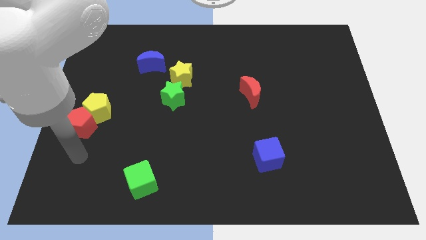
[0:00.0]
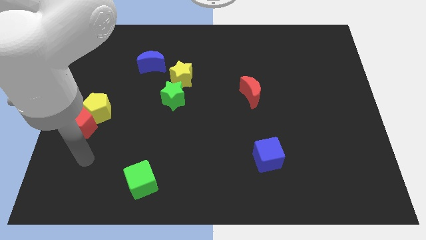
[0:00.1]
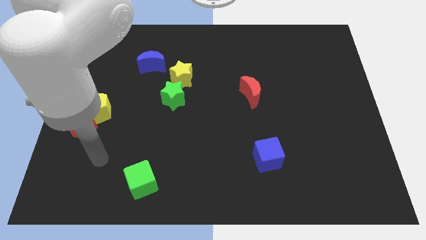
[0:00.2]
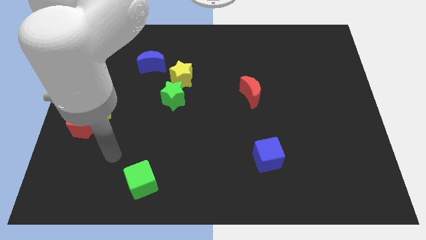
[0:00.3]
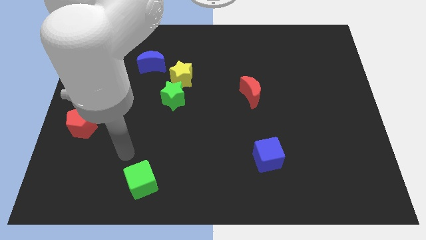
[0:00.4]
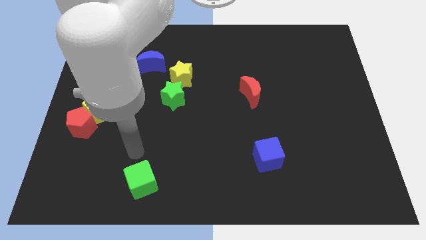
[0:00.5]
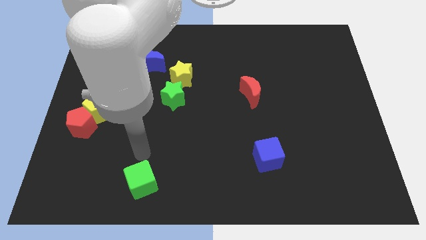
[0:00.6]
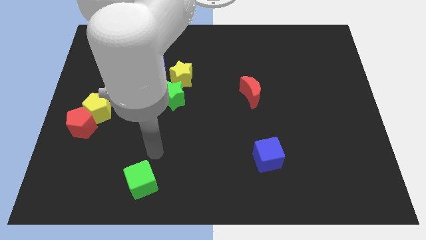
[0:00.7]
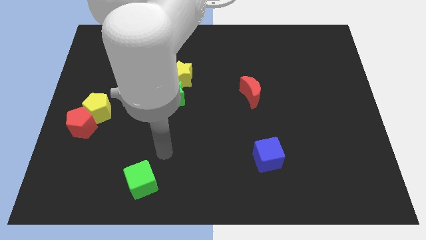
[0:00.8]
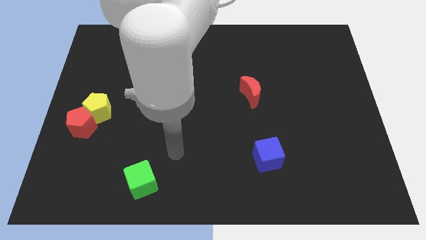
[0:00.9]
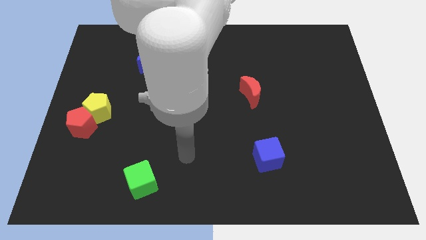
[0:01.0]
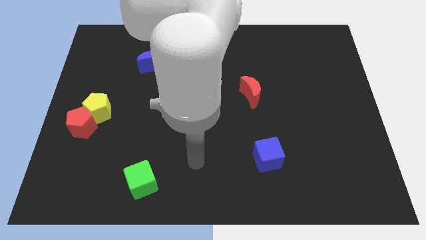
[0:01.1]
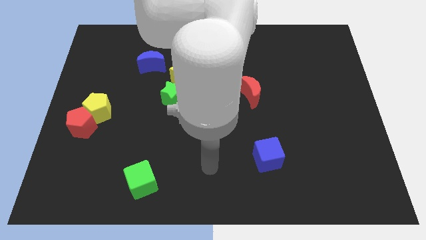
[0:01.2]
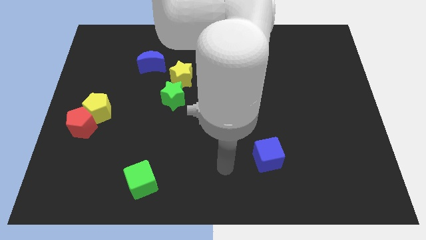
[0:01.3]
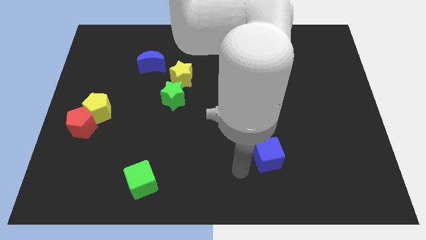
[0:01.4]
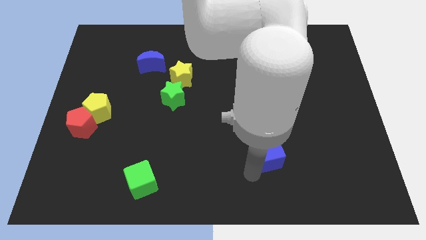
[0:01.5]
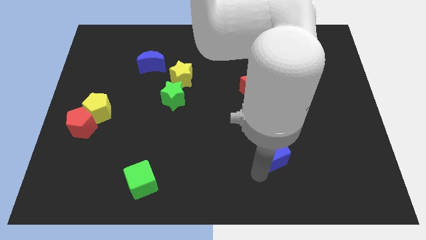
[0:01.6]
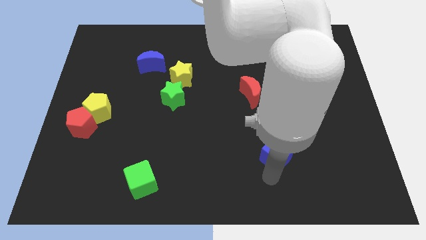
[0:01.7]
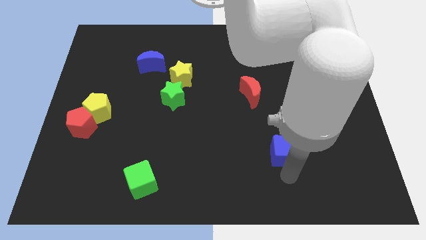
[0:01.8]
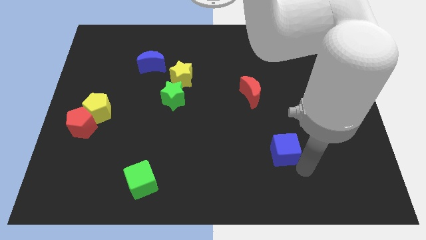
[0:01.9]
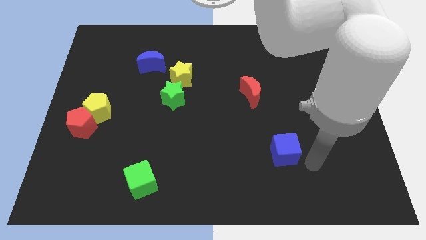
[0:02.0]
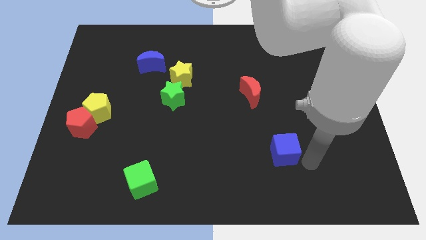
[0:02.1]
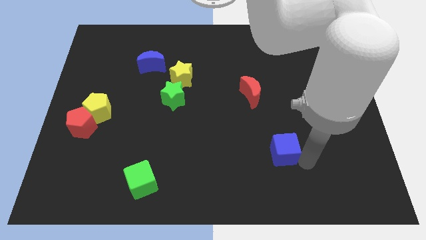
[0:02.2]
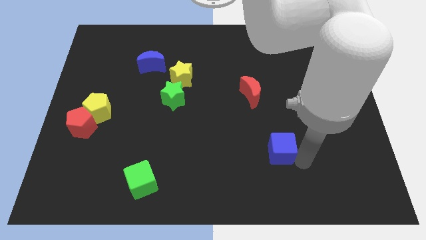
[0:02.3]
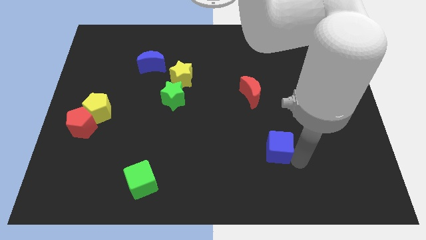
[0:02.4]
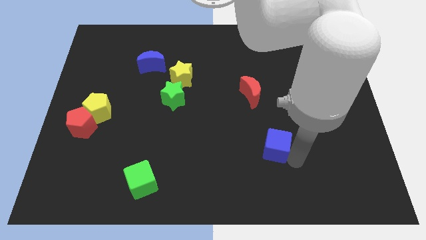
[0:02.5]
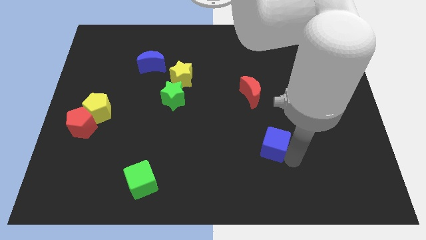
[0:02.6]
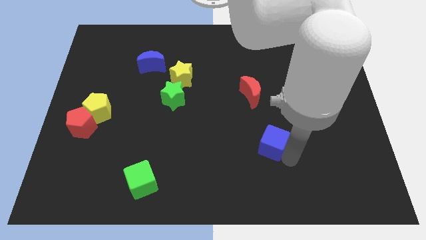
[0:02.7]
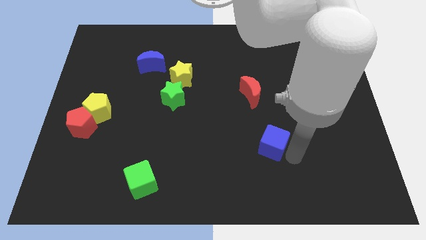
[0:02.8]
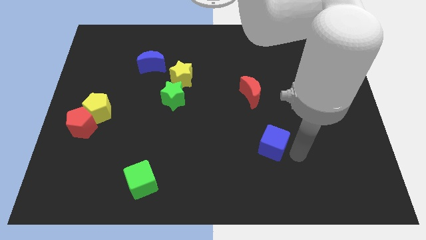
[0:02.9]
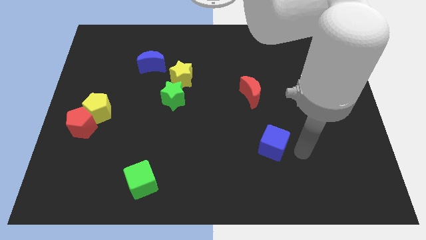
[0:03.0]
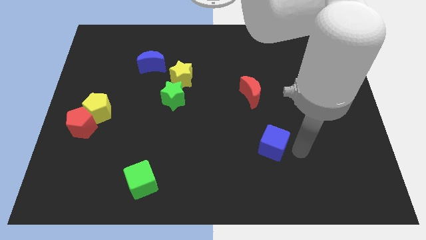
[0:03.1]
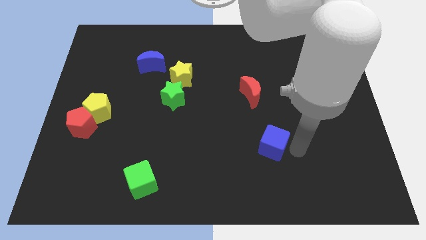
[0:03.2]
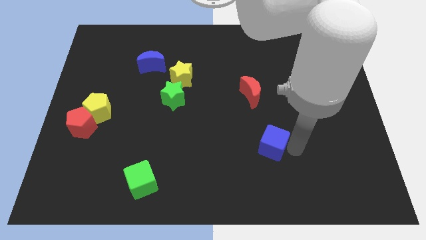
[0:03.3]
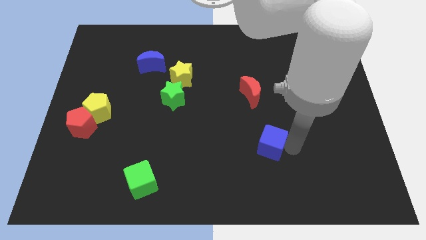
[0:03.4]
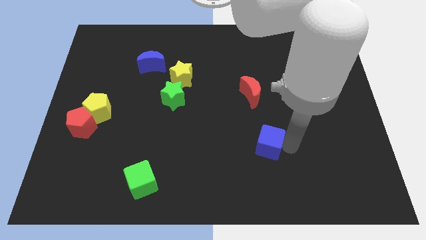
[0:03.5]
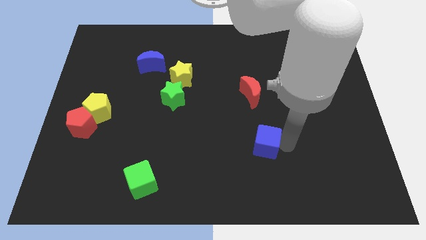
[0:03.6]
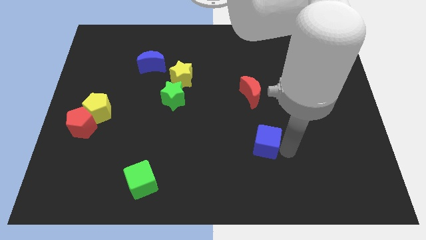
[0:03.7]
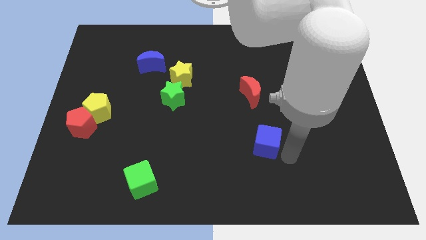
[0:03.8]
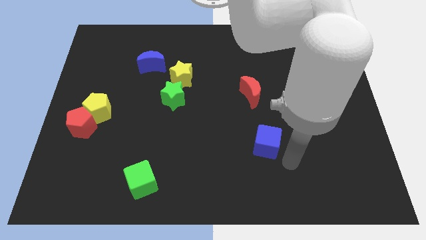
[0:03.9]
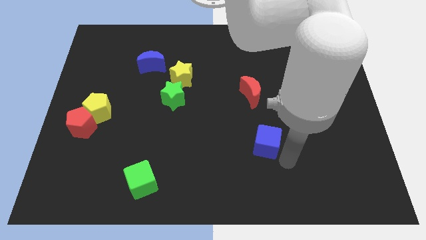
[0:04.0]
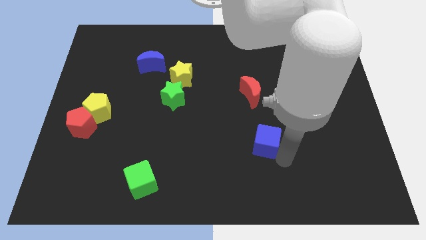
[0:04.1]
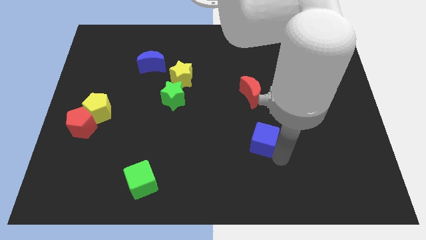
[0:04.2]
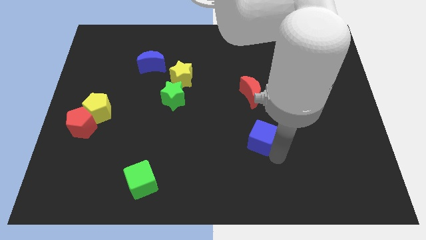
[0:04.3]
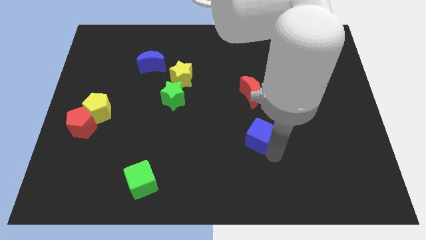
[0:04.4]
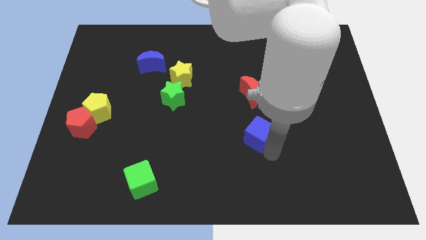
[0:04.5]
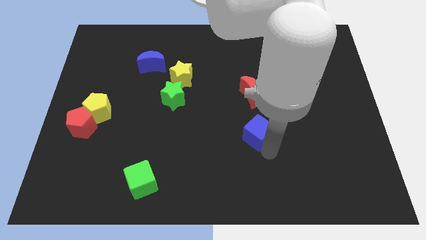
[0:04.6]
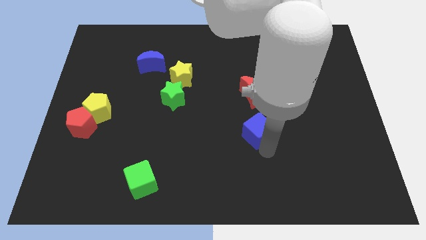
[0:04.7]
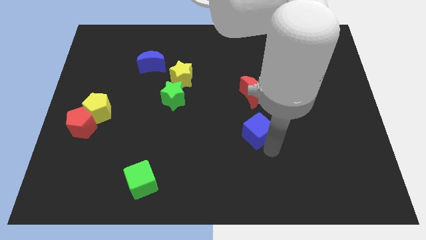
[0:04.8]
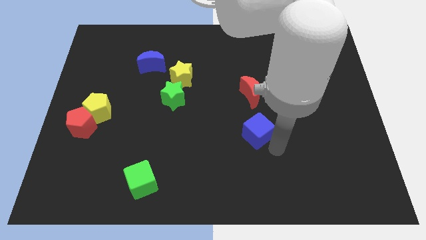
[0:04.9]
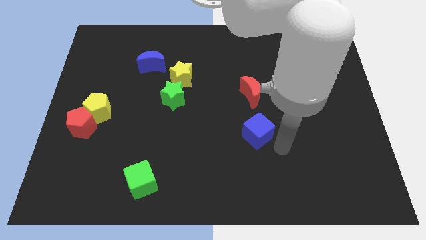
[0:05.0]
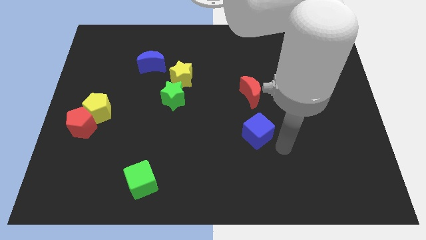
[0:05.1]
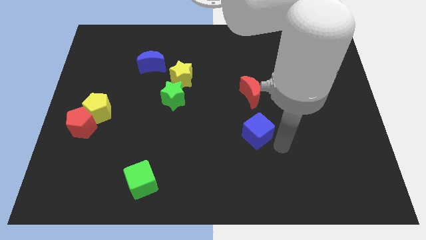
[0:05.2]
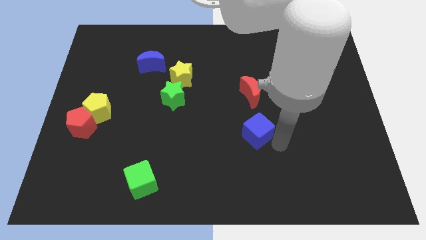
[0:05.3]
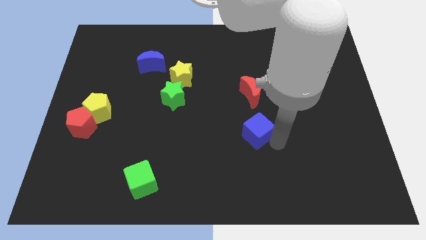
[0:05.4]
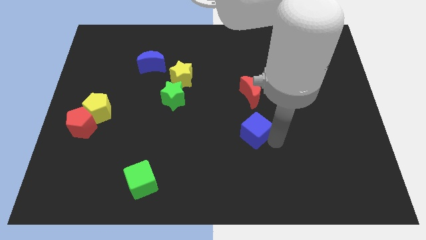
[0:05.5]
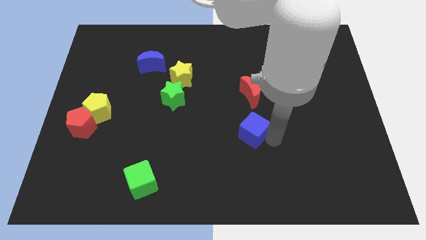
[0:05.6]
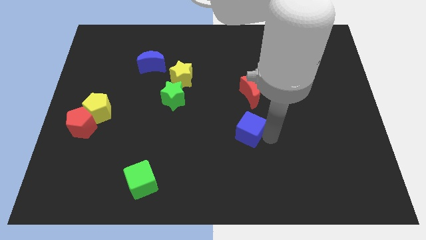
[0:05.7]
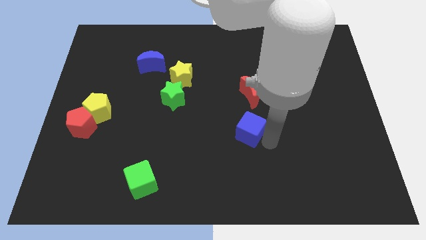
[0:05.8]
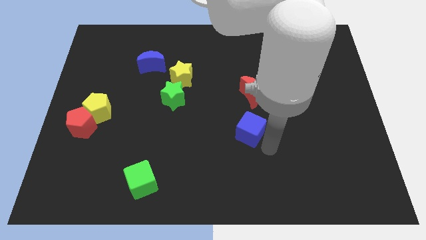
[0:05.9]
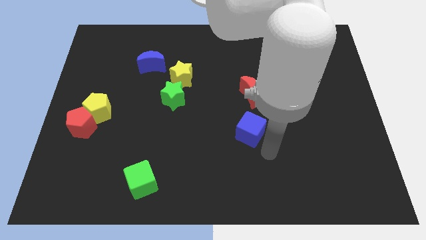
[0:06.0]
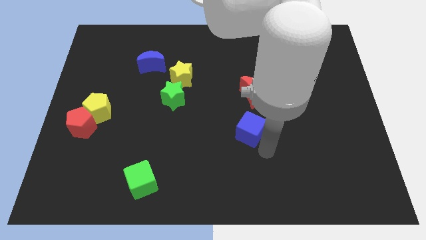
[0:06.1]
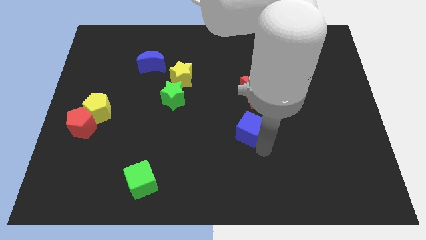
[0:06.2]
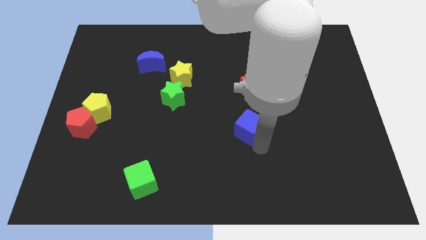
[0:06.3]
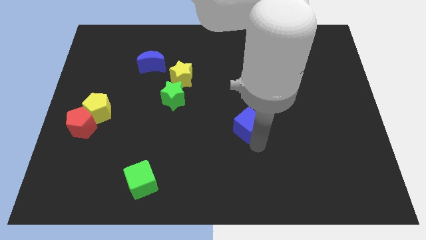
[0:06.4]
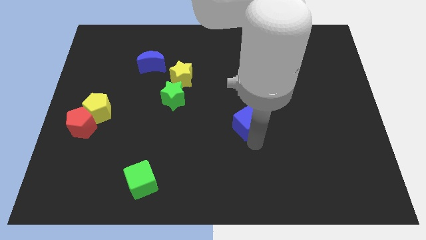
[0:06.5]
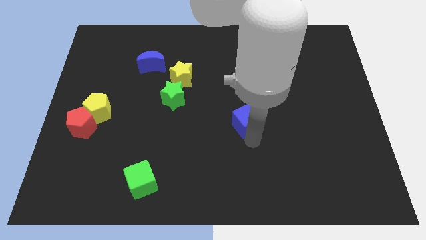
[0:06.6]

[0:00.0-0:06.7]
put the blue cube diagonally down and to the left of the red moon
